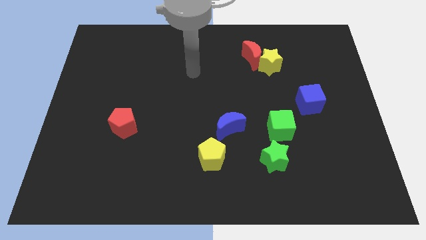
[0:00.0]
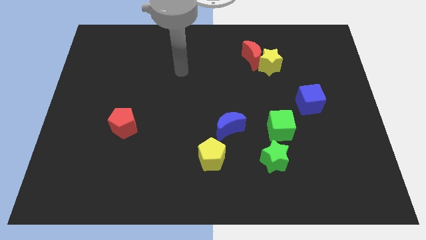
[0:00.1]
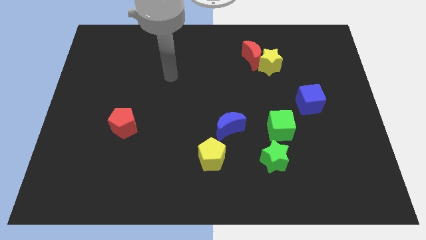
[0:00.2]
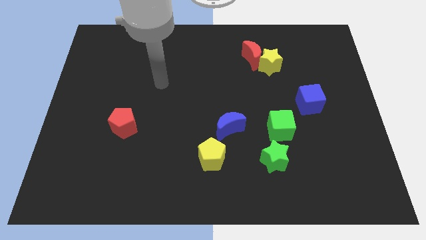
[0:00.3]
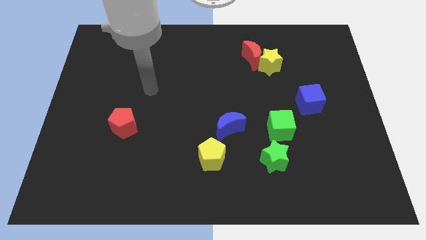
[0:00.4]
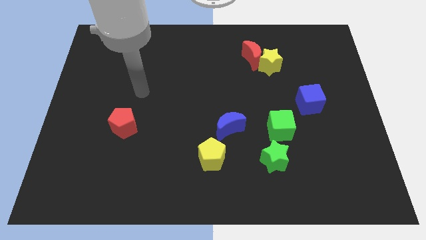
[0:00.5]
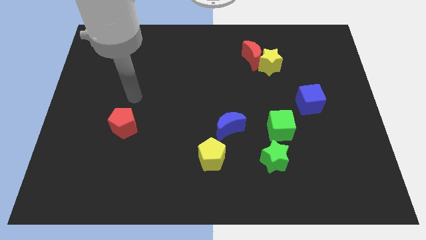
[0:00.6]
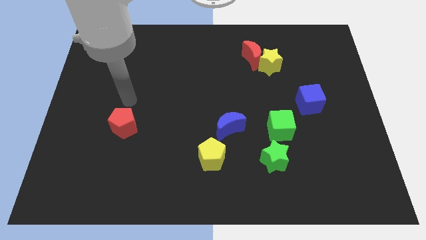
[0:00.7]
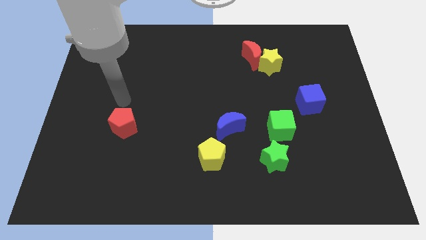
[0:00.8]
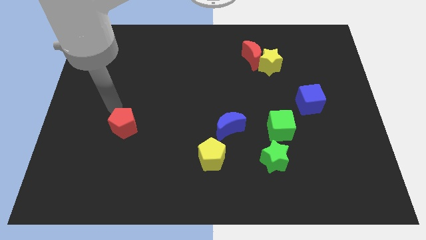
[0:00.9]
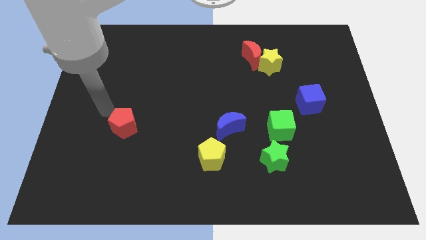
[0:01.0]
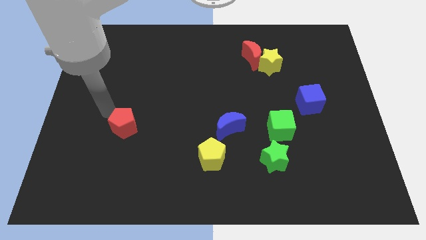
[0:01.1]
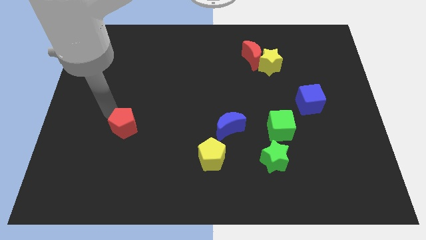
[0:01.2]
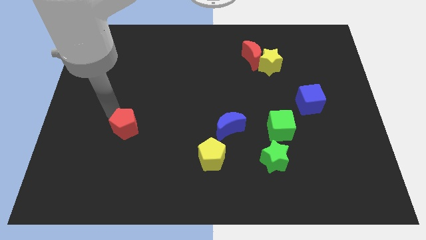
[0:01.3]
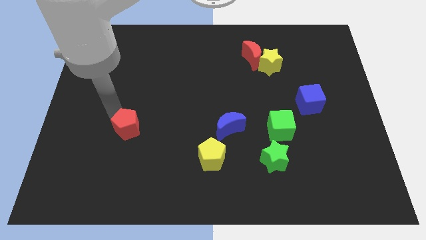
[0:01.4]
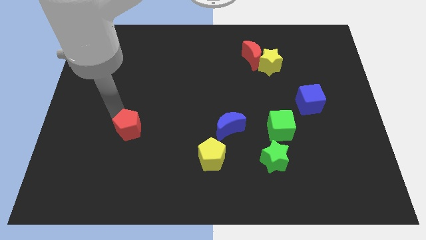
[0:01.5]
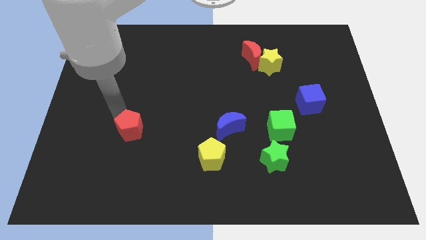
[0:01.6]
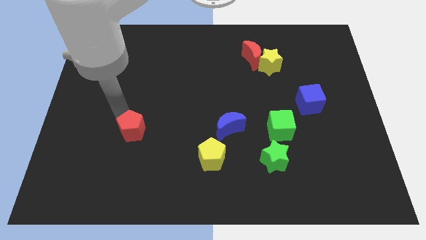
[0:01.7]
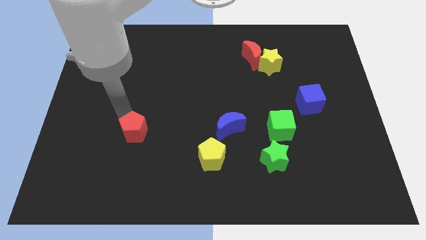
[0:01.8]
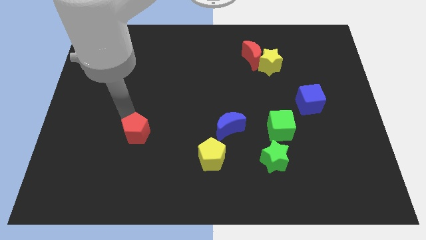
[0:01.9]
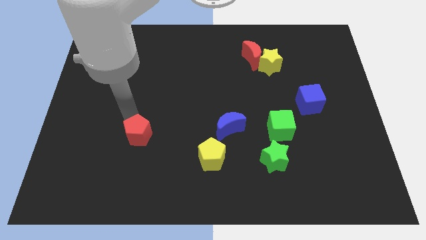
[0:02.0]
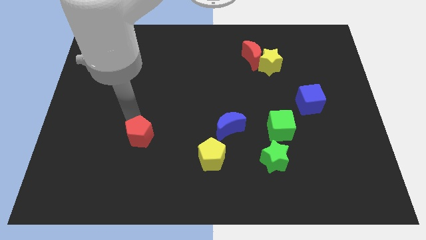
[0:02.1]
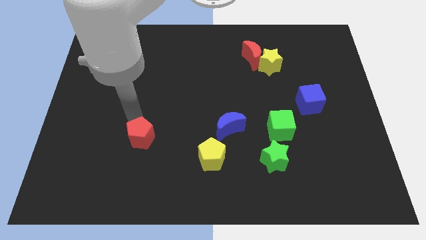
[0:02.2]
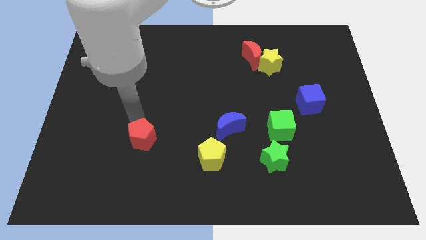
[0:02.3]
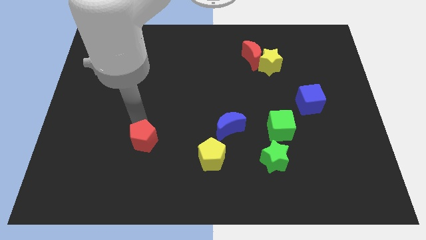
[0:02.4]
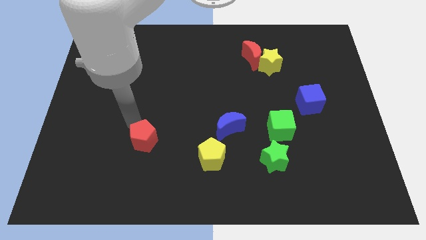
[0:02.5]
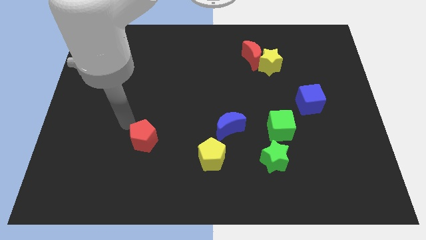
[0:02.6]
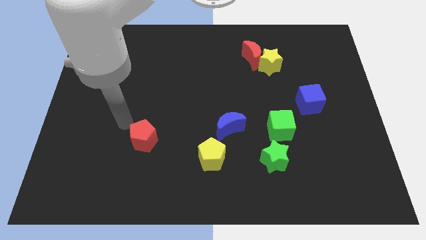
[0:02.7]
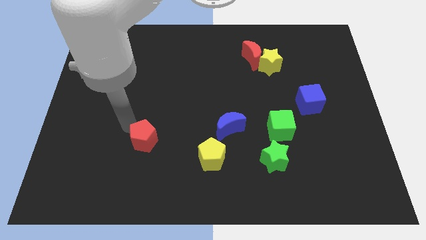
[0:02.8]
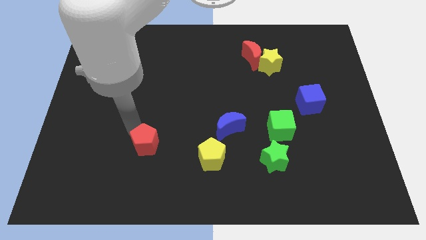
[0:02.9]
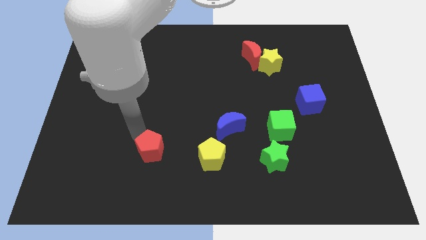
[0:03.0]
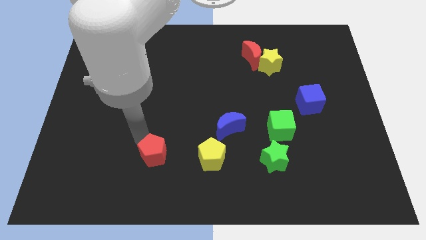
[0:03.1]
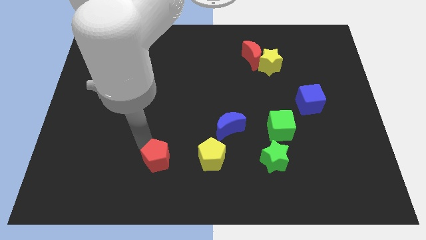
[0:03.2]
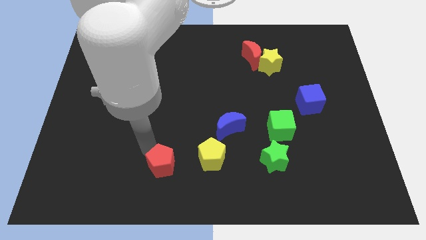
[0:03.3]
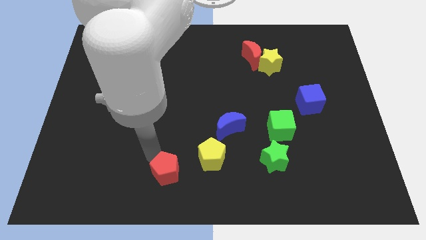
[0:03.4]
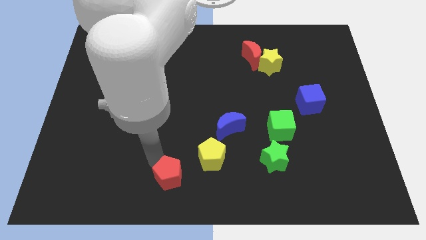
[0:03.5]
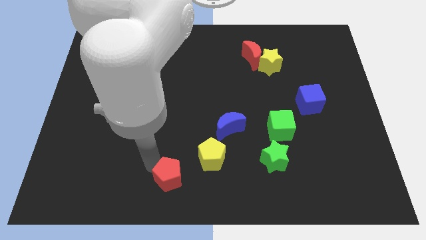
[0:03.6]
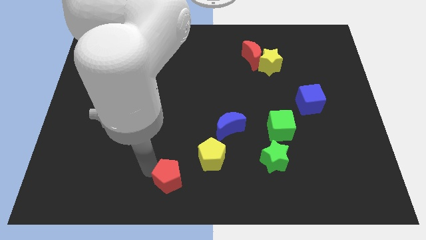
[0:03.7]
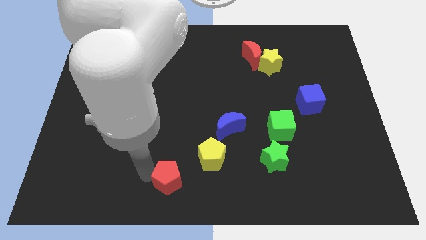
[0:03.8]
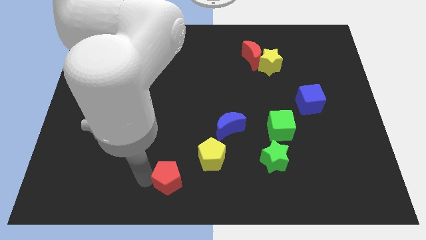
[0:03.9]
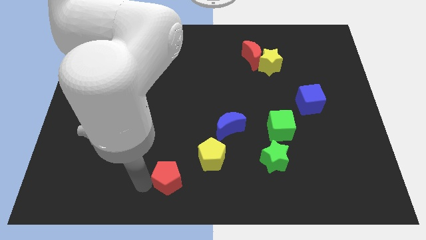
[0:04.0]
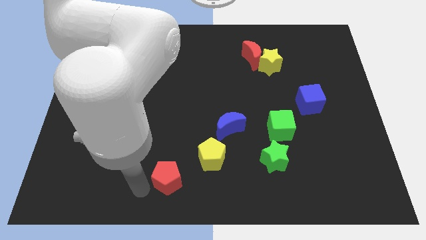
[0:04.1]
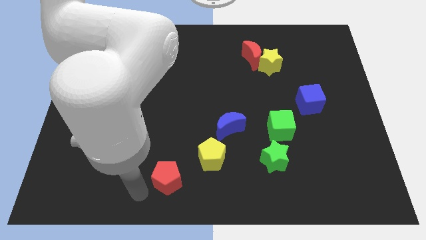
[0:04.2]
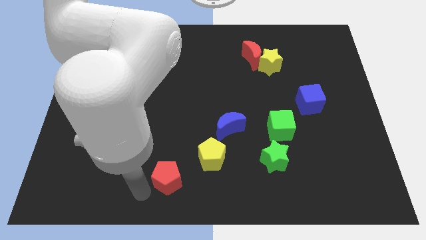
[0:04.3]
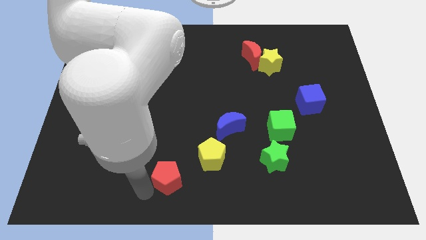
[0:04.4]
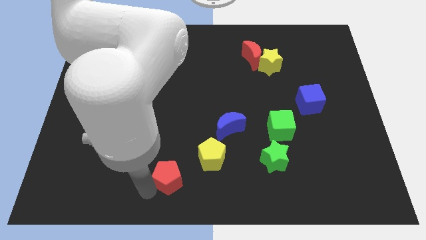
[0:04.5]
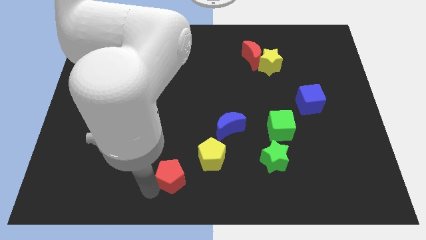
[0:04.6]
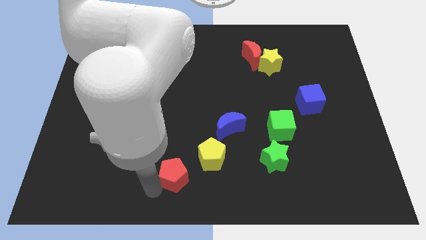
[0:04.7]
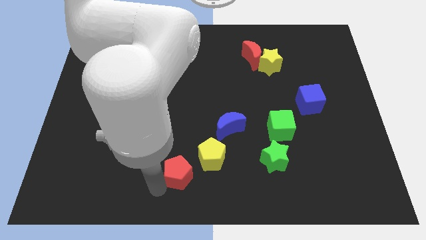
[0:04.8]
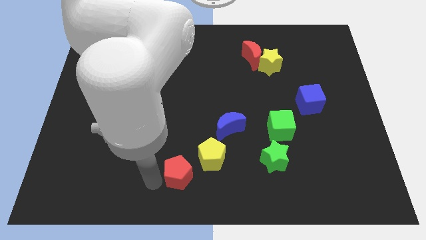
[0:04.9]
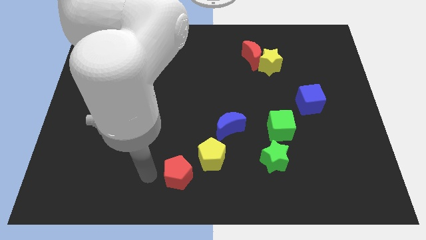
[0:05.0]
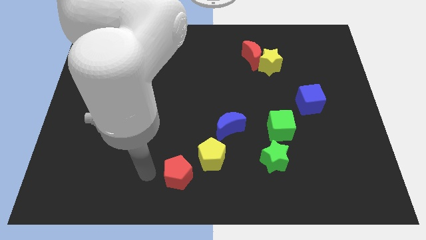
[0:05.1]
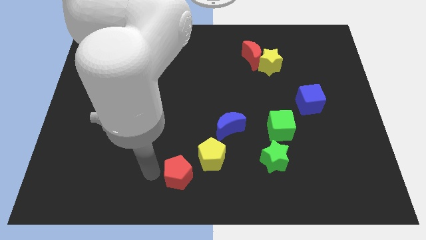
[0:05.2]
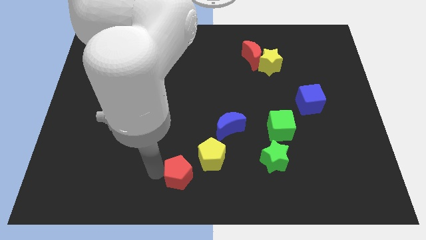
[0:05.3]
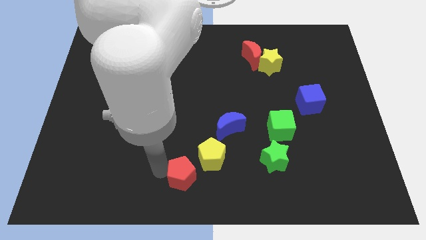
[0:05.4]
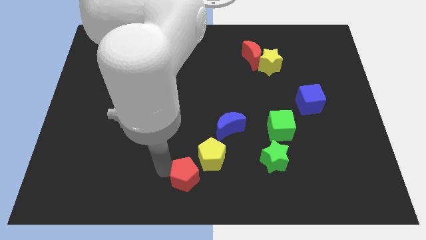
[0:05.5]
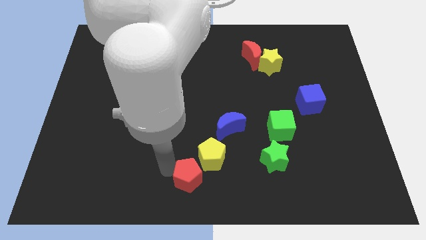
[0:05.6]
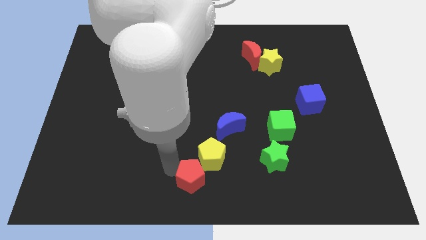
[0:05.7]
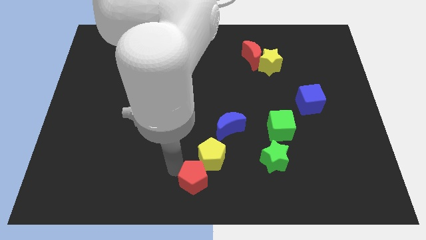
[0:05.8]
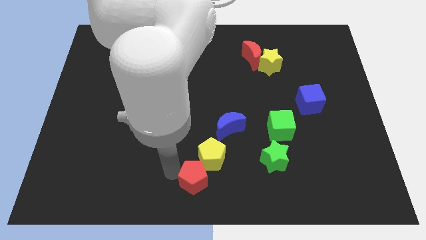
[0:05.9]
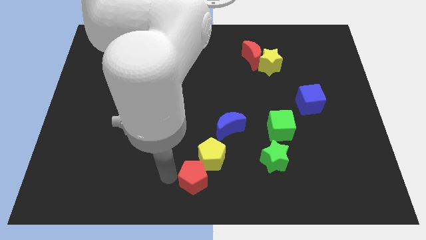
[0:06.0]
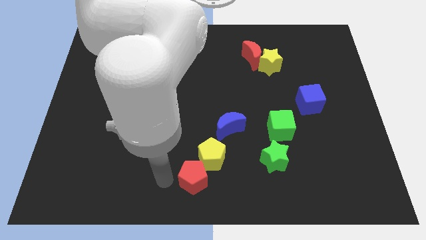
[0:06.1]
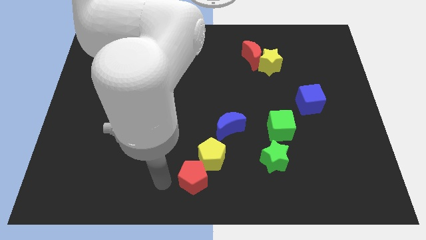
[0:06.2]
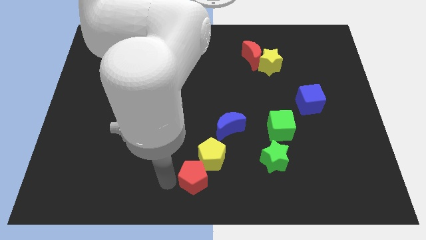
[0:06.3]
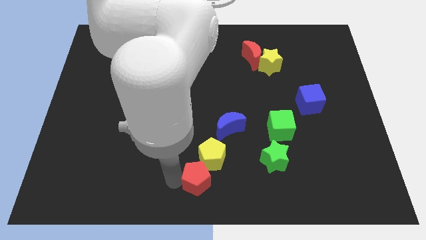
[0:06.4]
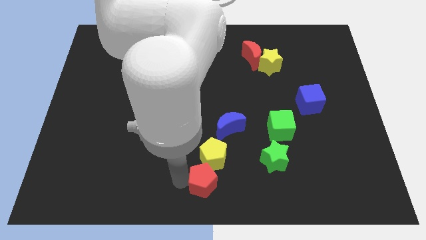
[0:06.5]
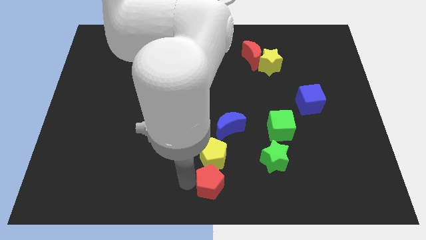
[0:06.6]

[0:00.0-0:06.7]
move the red pentagon to the bottom right of the yellow pentagon

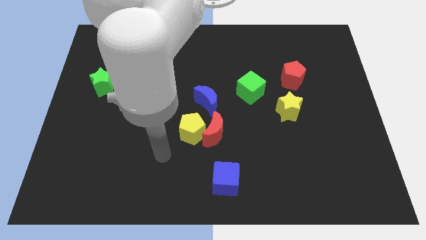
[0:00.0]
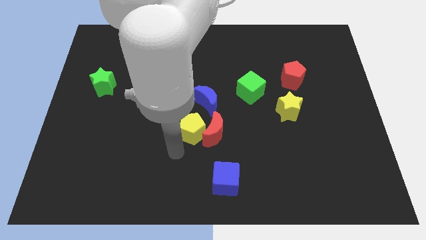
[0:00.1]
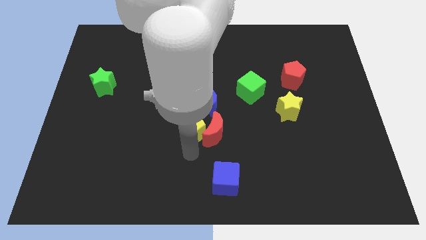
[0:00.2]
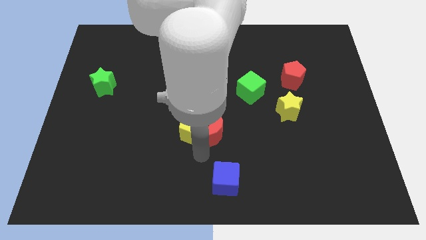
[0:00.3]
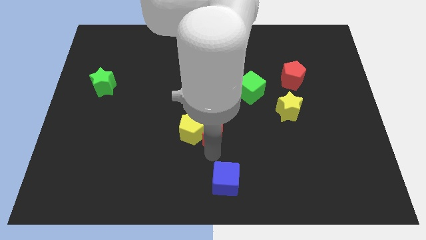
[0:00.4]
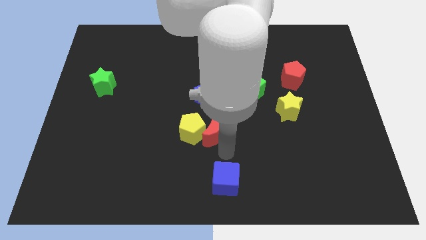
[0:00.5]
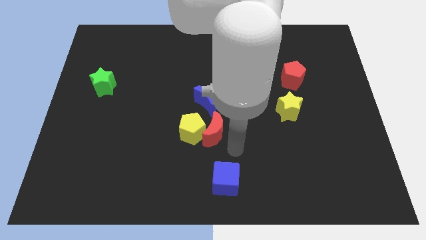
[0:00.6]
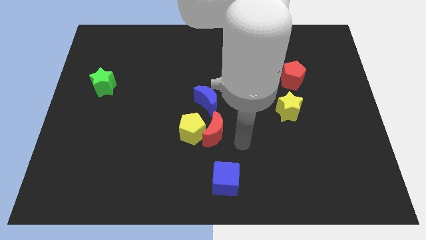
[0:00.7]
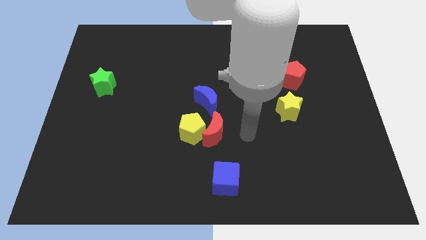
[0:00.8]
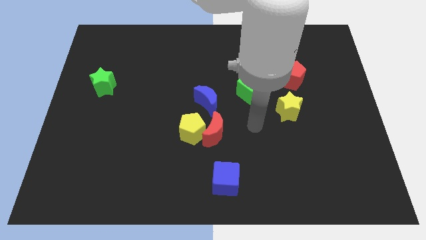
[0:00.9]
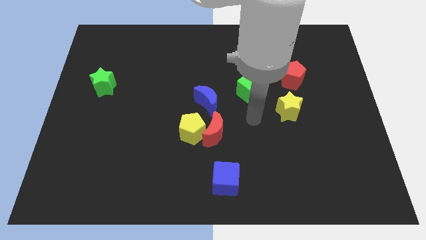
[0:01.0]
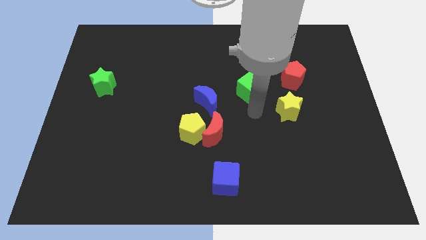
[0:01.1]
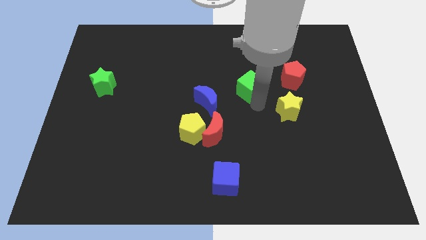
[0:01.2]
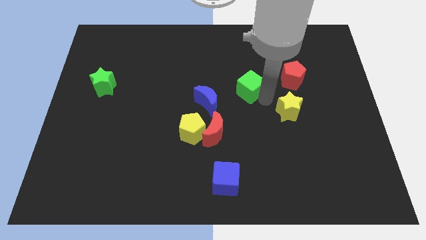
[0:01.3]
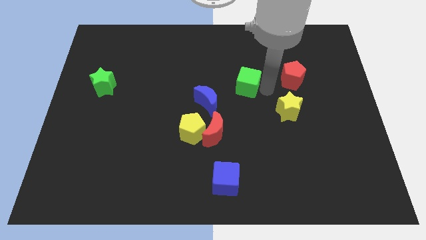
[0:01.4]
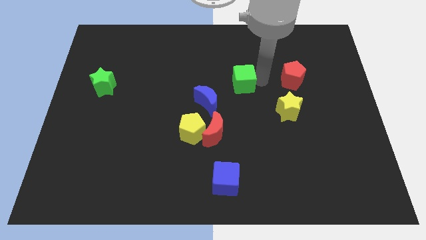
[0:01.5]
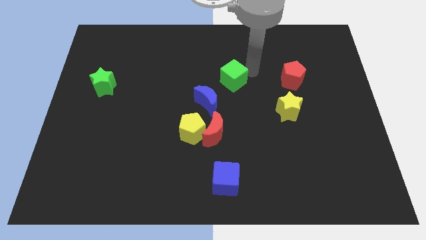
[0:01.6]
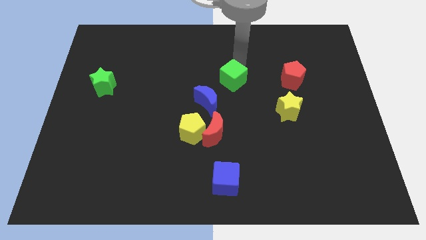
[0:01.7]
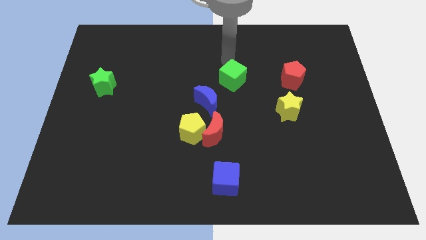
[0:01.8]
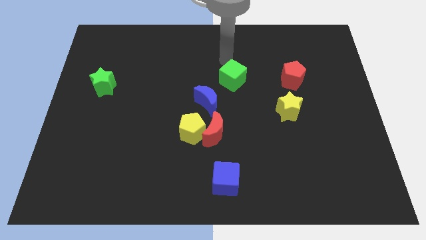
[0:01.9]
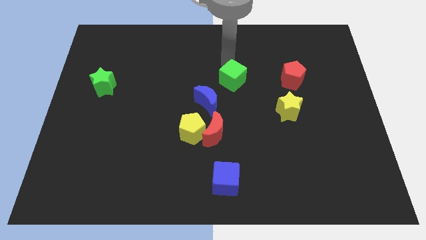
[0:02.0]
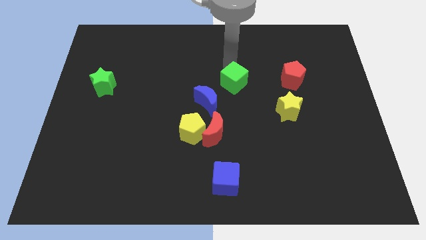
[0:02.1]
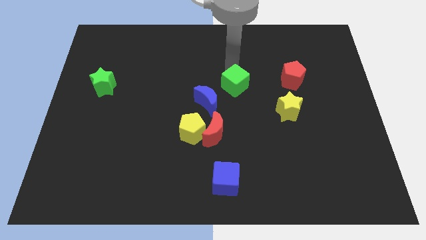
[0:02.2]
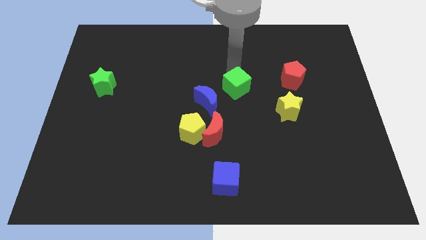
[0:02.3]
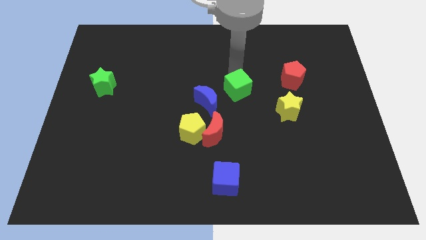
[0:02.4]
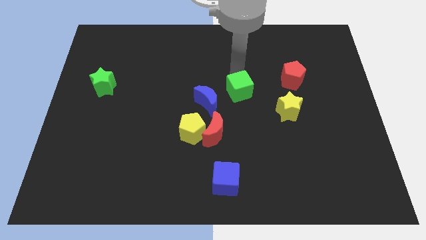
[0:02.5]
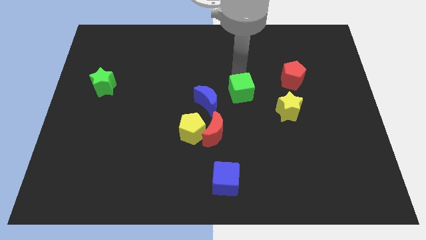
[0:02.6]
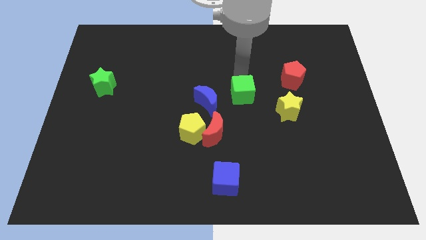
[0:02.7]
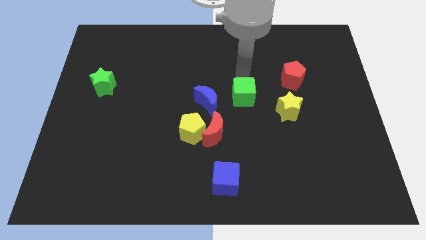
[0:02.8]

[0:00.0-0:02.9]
push the green cube to the left of the yellow star
